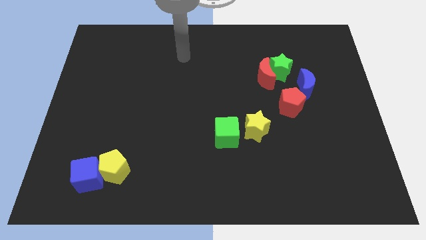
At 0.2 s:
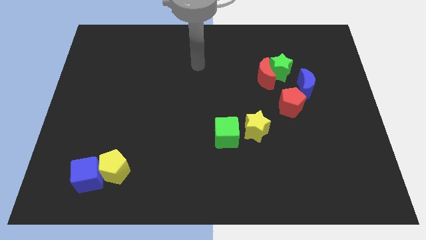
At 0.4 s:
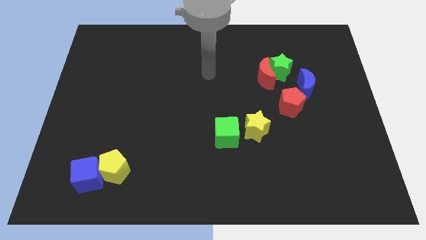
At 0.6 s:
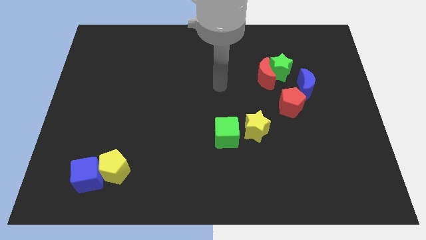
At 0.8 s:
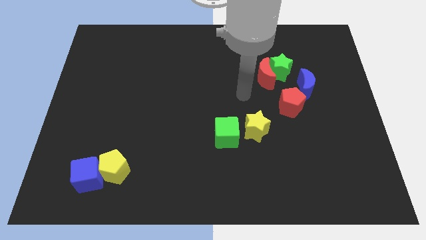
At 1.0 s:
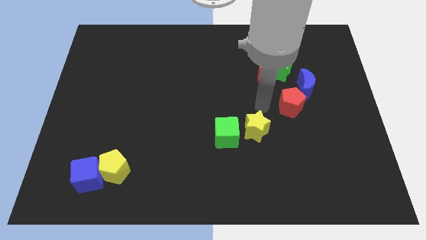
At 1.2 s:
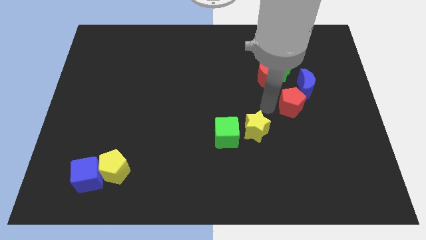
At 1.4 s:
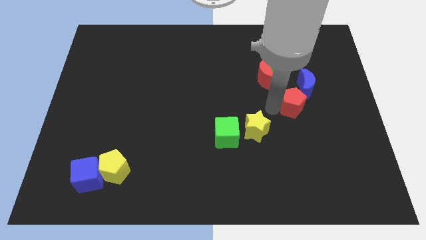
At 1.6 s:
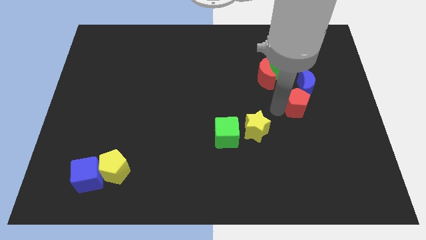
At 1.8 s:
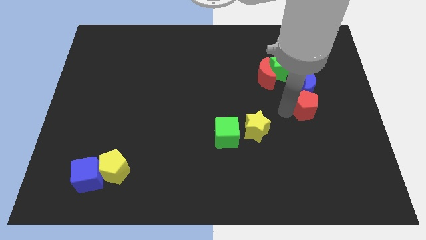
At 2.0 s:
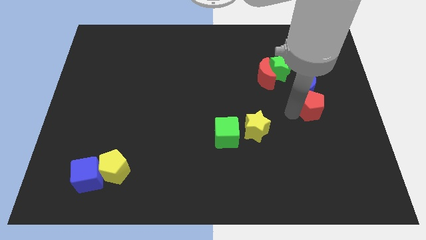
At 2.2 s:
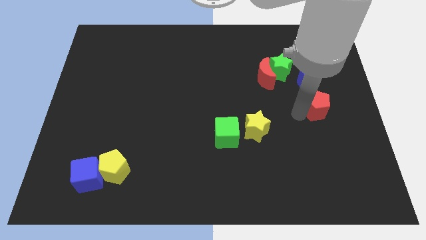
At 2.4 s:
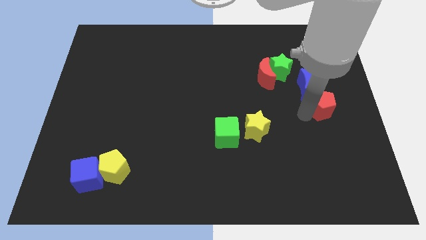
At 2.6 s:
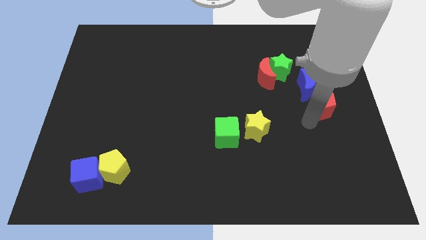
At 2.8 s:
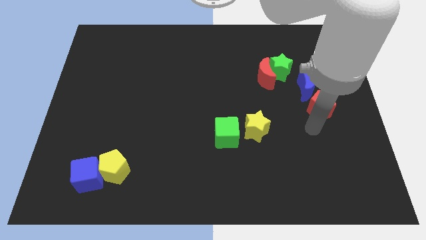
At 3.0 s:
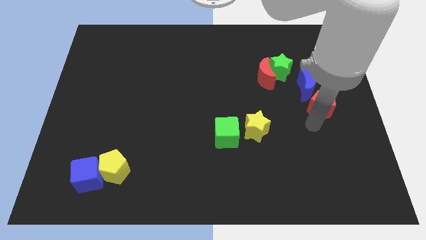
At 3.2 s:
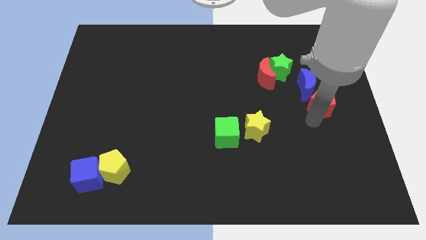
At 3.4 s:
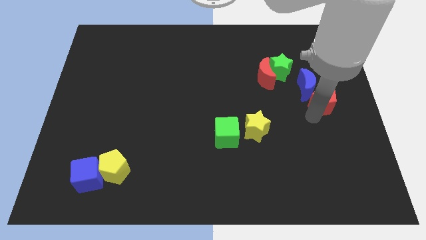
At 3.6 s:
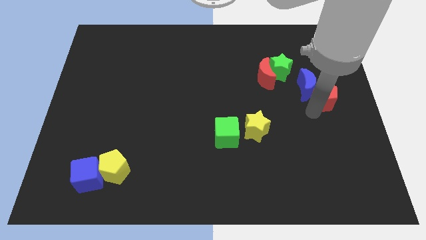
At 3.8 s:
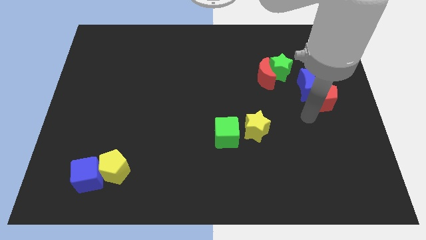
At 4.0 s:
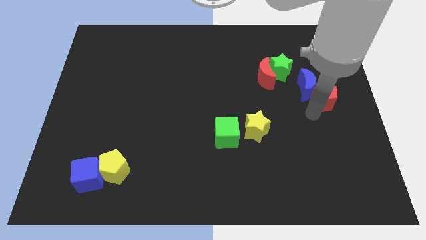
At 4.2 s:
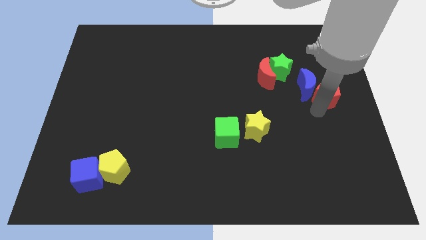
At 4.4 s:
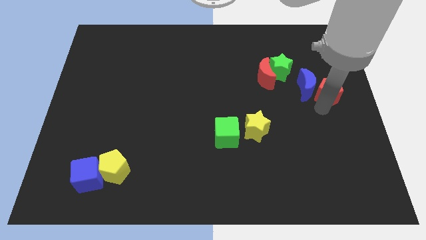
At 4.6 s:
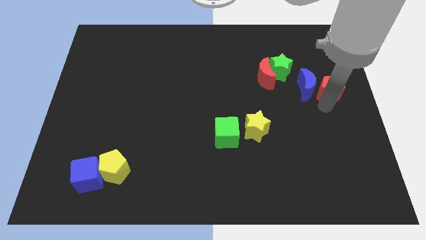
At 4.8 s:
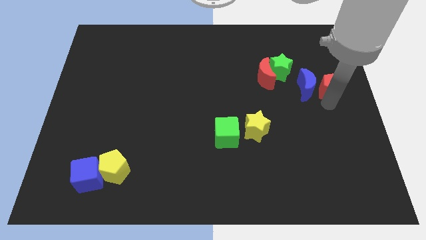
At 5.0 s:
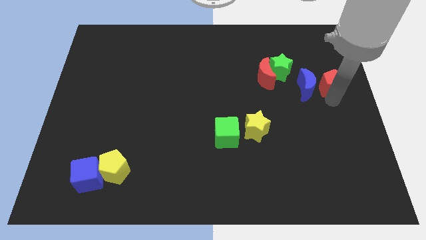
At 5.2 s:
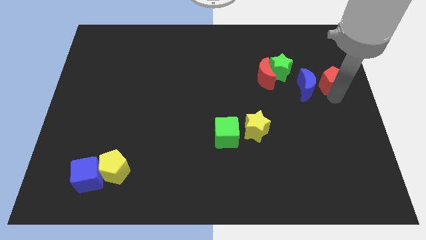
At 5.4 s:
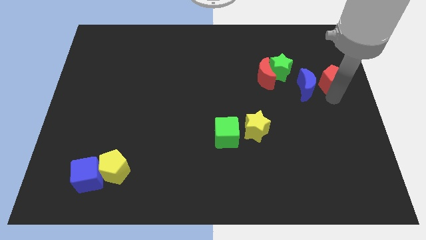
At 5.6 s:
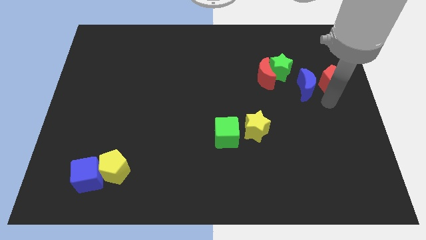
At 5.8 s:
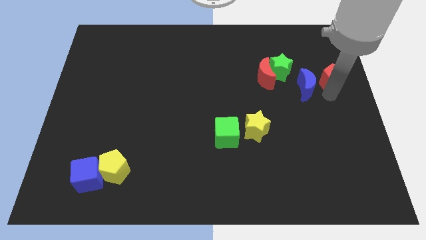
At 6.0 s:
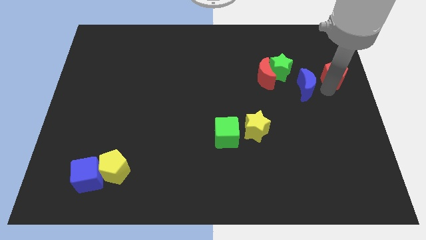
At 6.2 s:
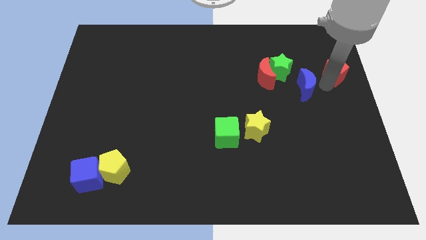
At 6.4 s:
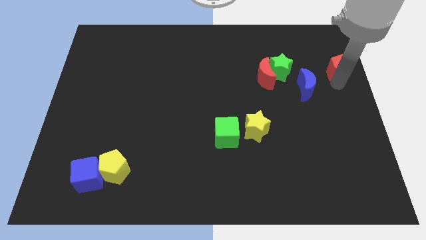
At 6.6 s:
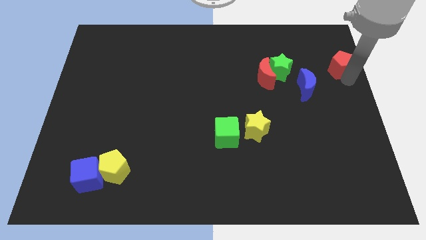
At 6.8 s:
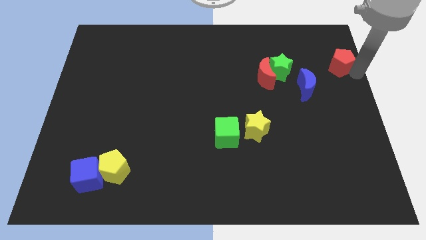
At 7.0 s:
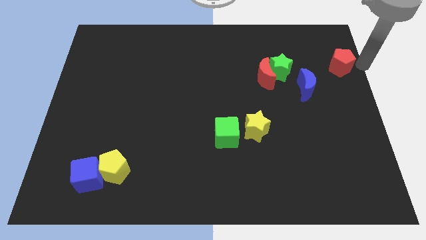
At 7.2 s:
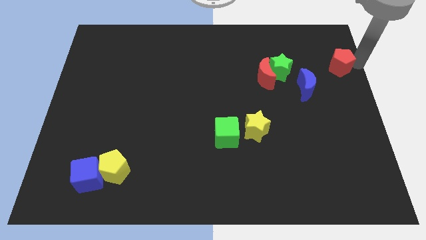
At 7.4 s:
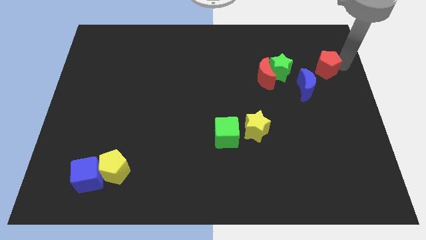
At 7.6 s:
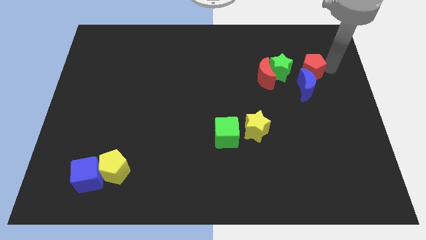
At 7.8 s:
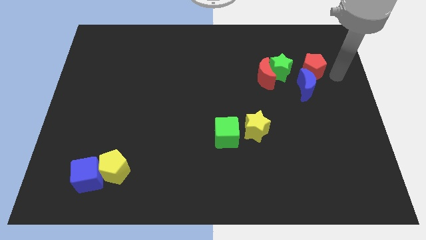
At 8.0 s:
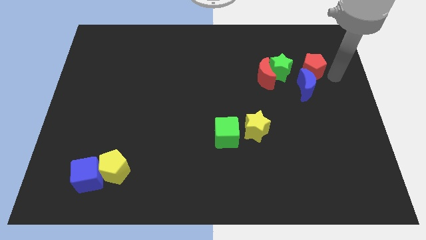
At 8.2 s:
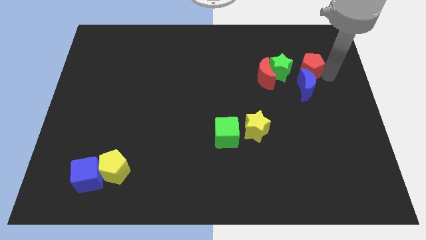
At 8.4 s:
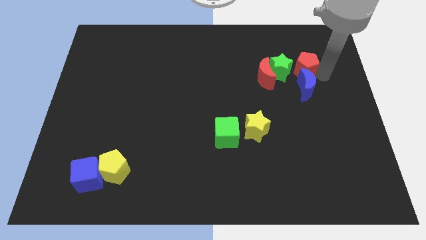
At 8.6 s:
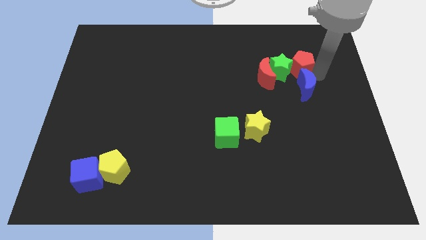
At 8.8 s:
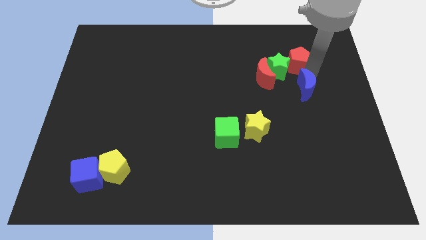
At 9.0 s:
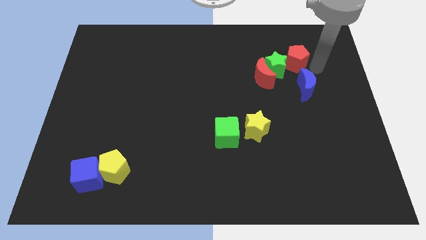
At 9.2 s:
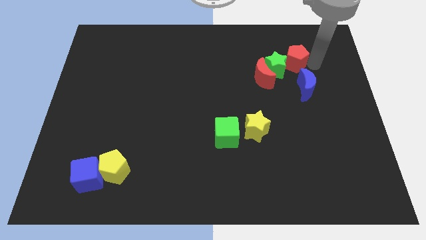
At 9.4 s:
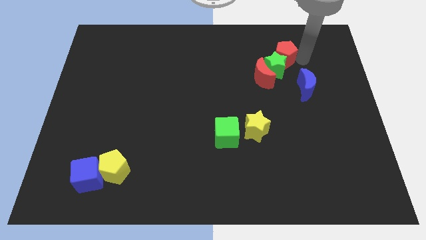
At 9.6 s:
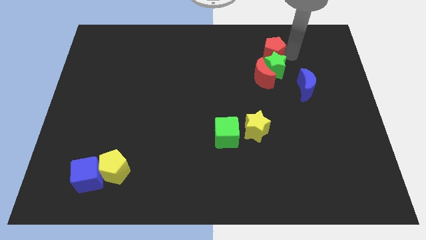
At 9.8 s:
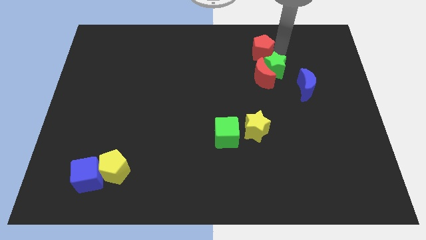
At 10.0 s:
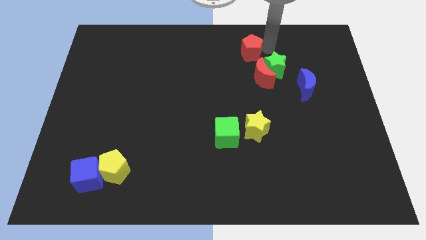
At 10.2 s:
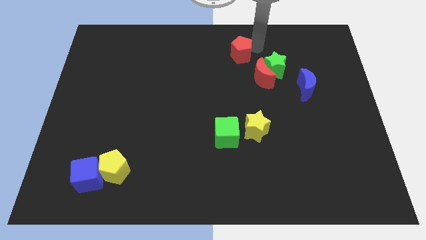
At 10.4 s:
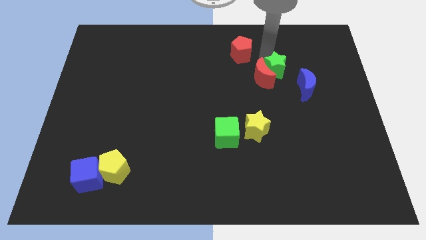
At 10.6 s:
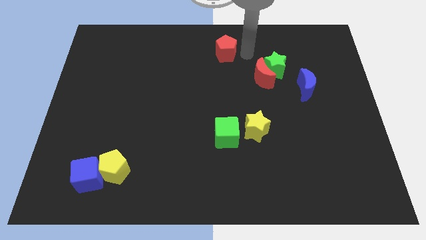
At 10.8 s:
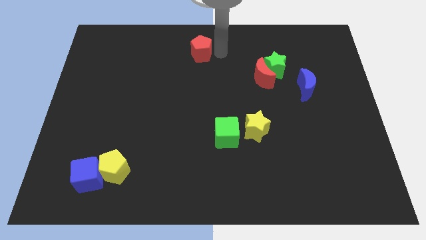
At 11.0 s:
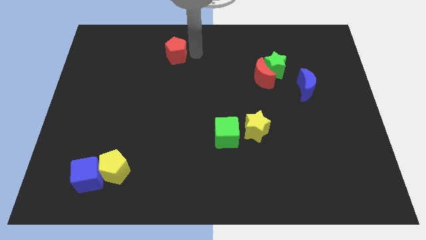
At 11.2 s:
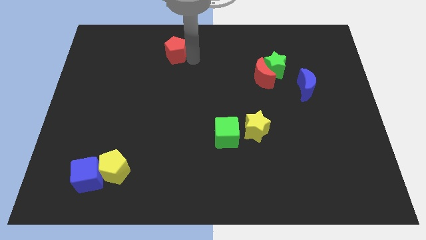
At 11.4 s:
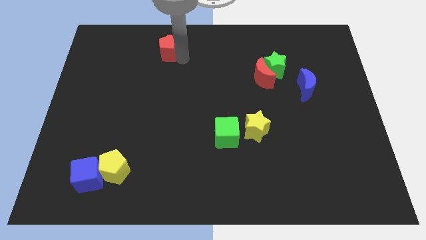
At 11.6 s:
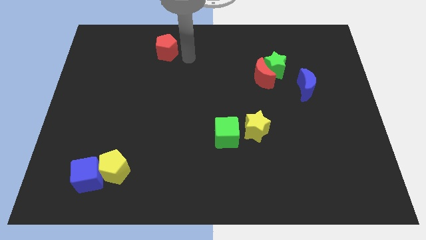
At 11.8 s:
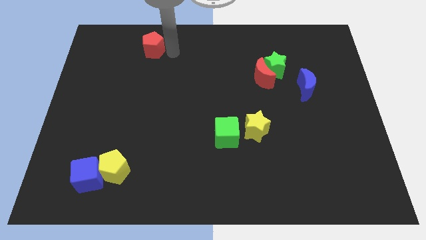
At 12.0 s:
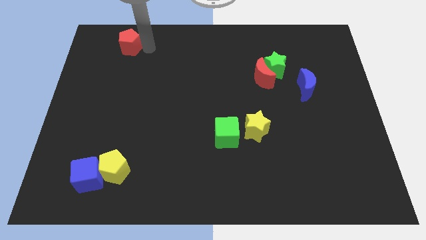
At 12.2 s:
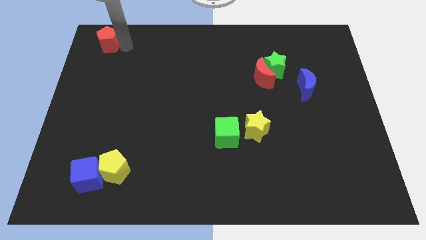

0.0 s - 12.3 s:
move the red pentagon to the top left corner
